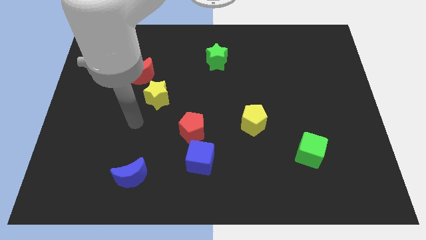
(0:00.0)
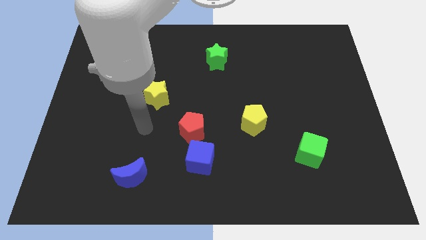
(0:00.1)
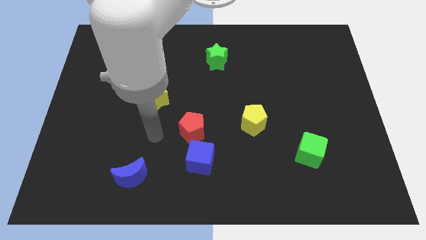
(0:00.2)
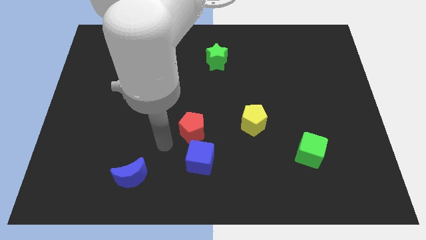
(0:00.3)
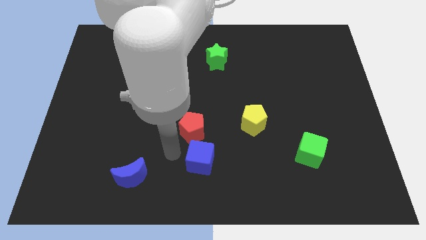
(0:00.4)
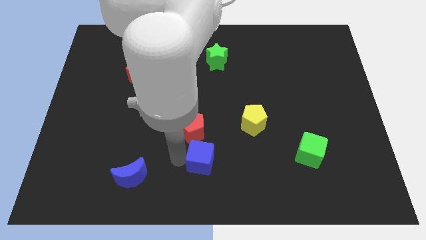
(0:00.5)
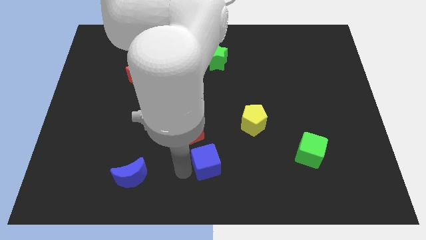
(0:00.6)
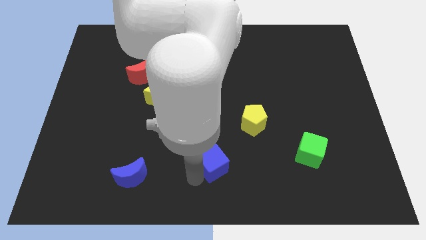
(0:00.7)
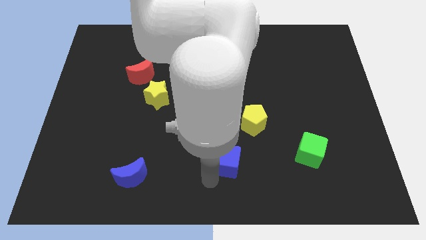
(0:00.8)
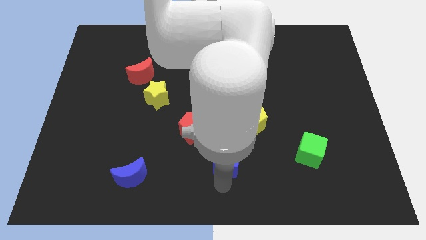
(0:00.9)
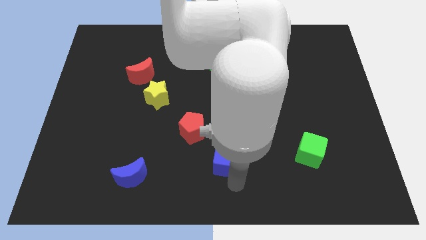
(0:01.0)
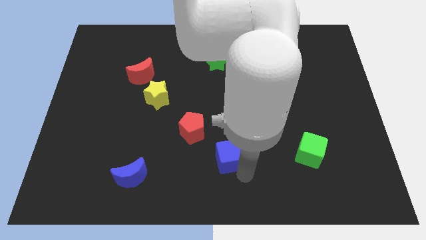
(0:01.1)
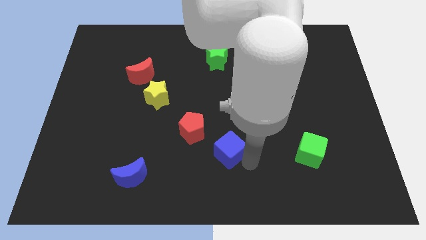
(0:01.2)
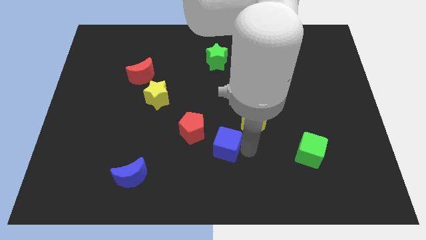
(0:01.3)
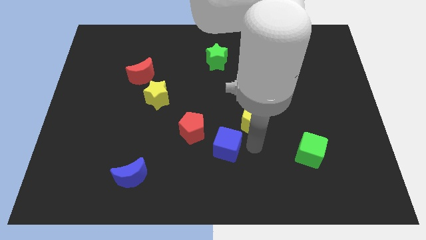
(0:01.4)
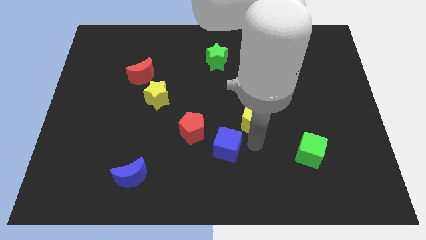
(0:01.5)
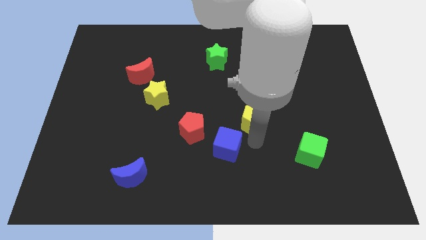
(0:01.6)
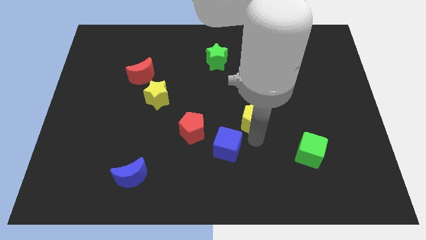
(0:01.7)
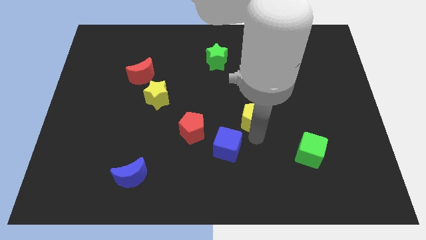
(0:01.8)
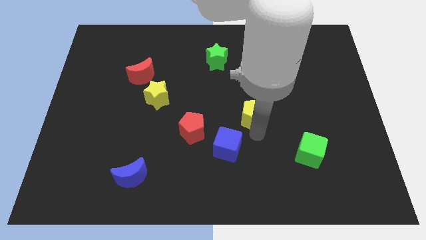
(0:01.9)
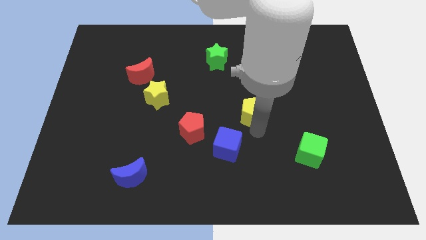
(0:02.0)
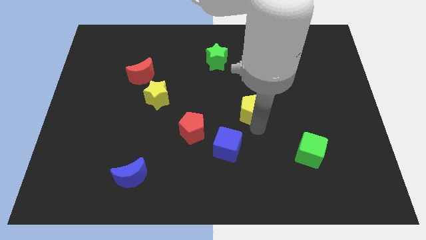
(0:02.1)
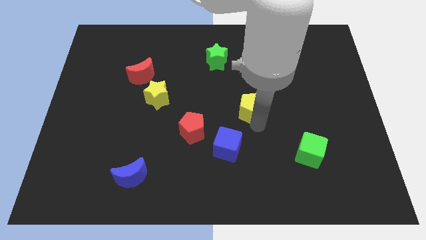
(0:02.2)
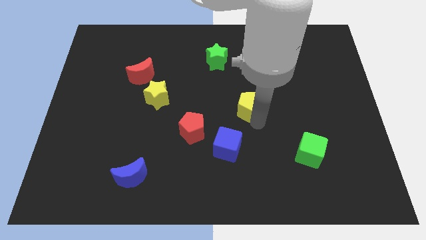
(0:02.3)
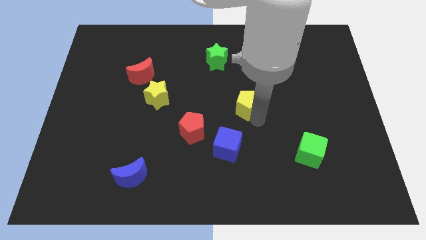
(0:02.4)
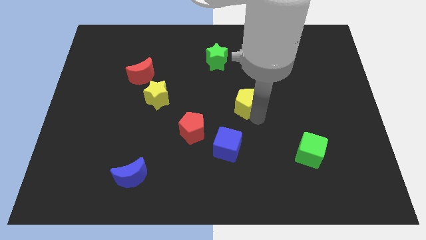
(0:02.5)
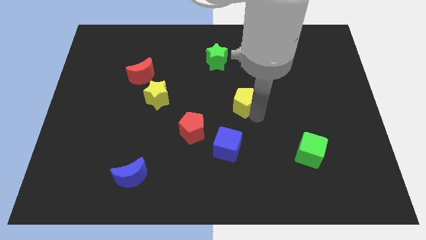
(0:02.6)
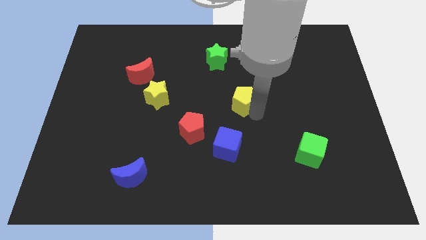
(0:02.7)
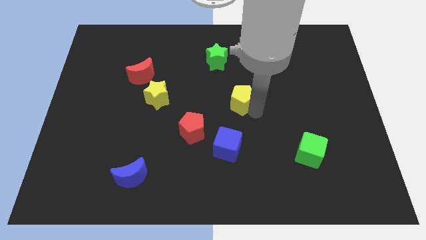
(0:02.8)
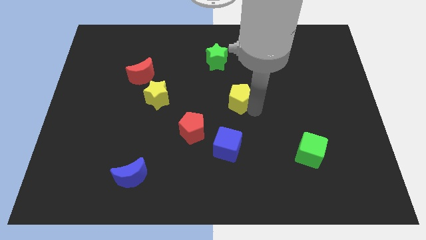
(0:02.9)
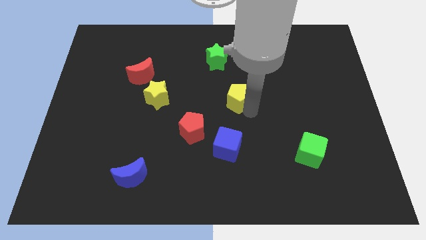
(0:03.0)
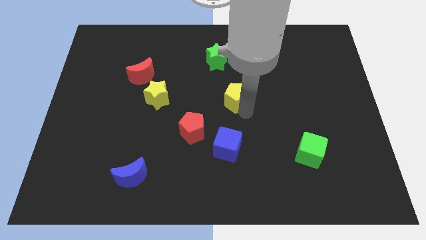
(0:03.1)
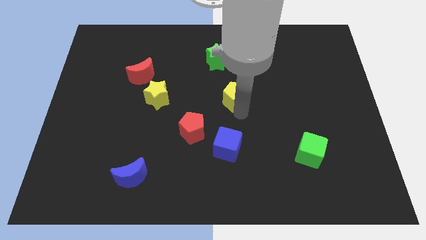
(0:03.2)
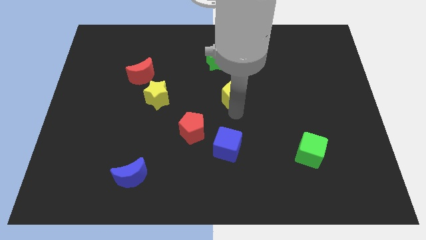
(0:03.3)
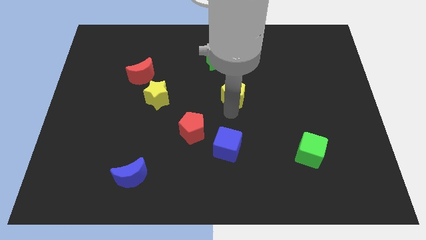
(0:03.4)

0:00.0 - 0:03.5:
push the yellow pentagon a little up

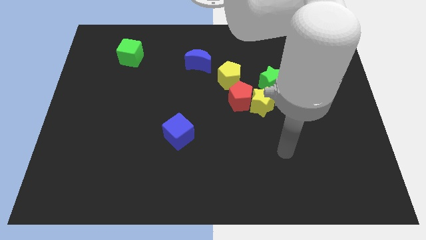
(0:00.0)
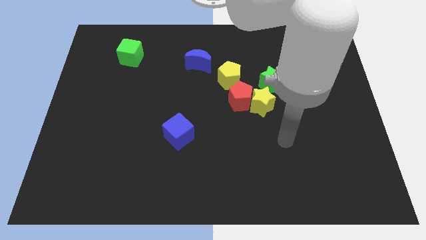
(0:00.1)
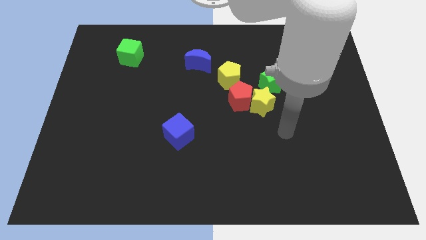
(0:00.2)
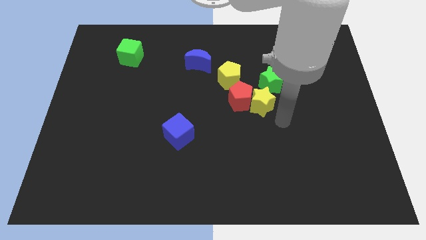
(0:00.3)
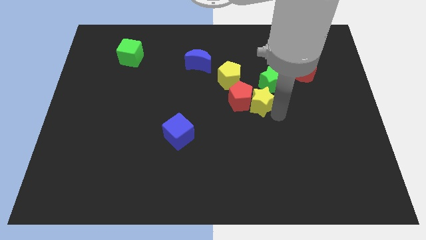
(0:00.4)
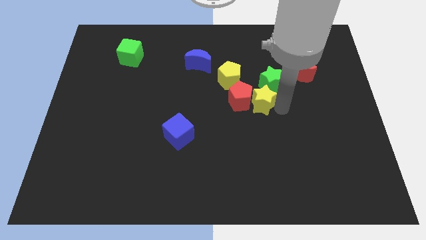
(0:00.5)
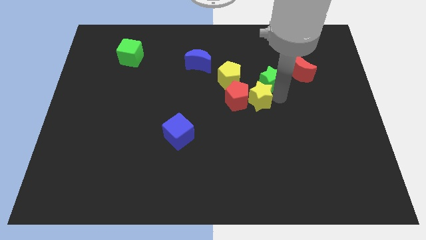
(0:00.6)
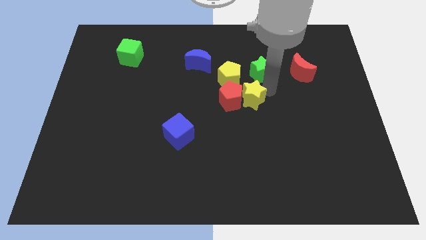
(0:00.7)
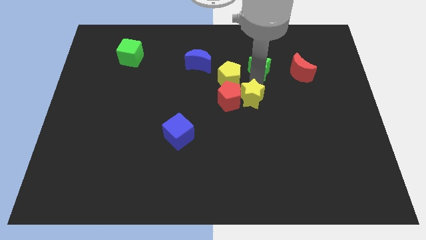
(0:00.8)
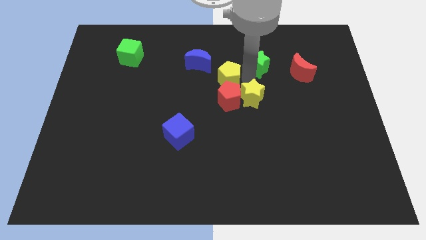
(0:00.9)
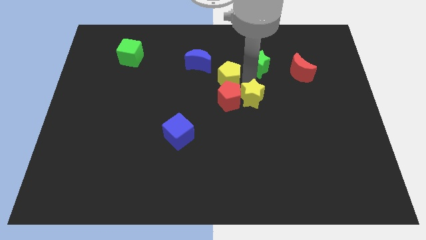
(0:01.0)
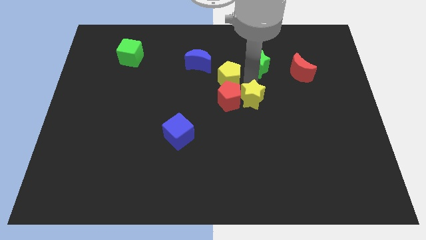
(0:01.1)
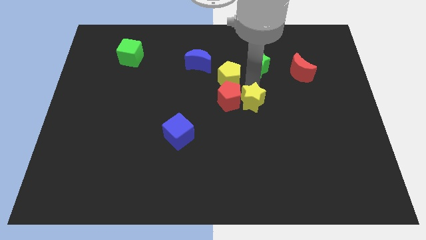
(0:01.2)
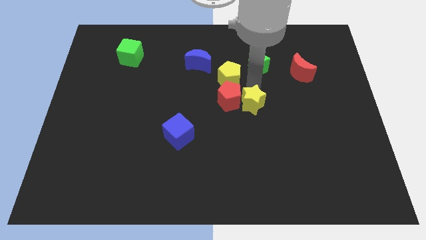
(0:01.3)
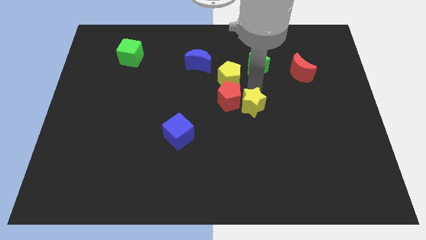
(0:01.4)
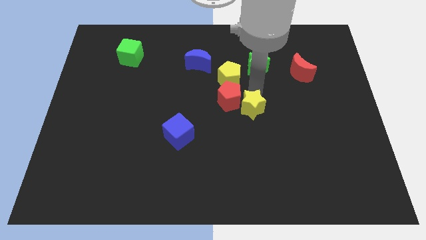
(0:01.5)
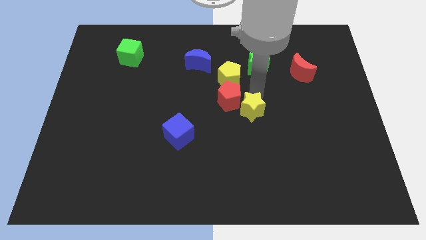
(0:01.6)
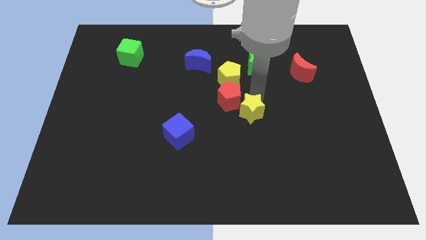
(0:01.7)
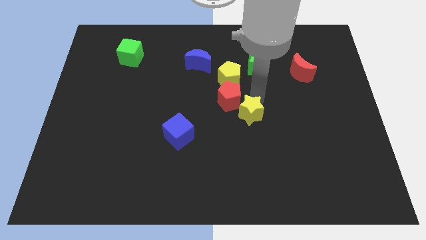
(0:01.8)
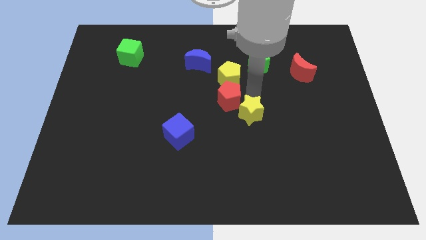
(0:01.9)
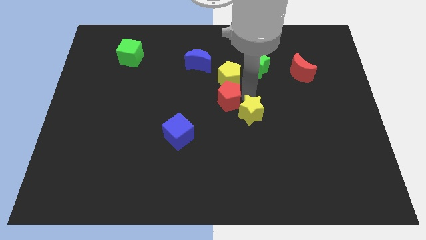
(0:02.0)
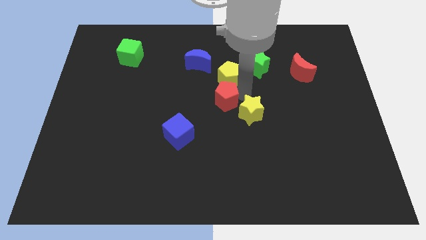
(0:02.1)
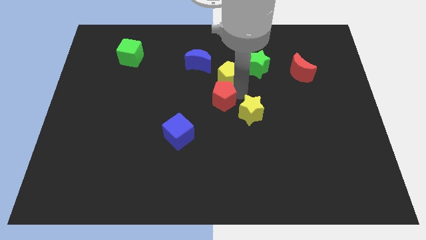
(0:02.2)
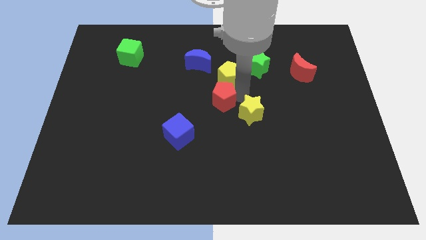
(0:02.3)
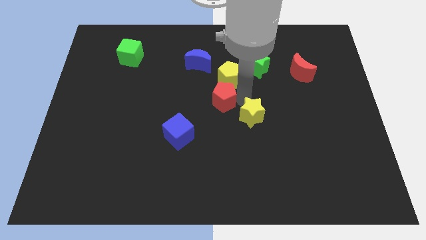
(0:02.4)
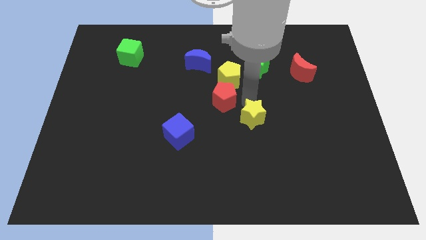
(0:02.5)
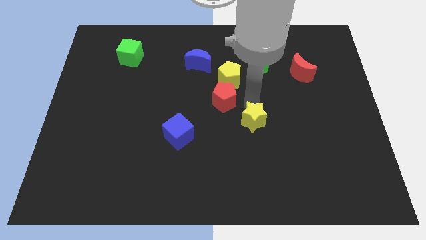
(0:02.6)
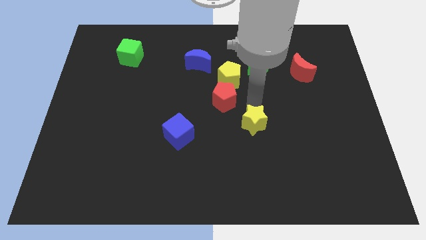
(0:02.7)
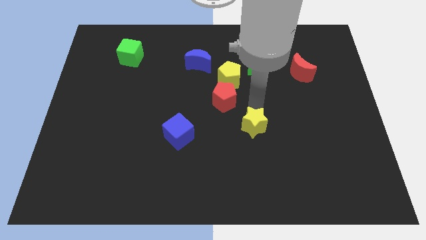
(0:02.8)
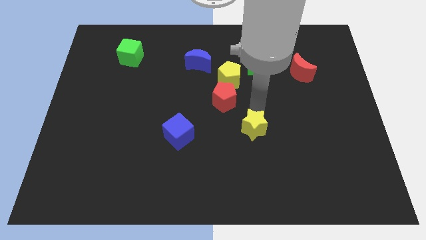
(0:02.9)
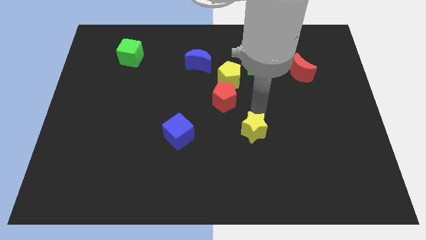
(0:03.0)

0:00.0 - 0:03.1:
slightly slide the yellow star down

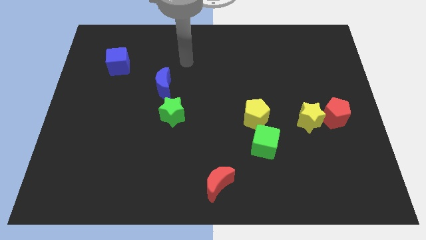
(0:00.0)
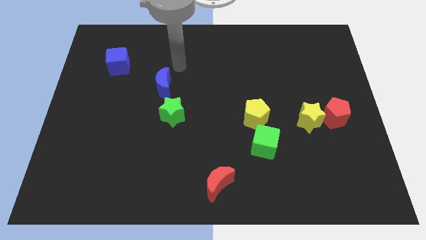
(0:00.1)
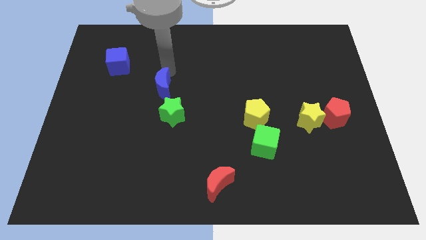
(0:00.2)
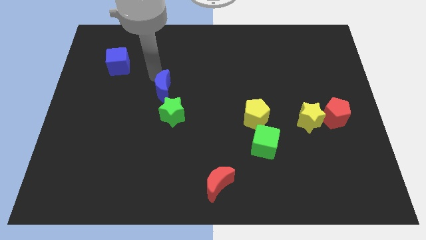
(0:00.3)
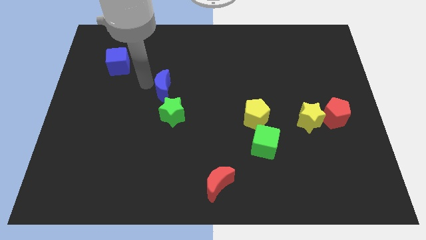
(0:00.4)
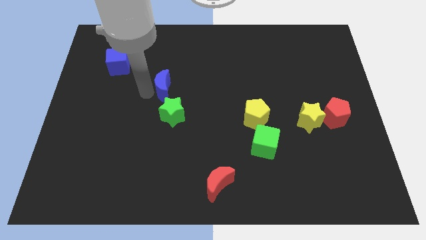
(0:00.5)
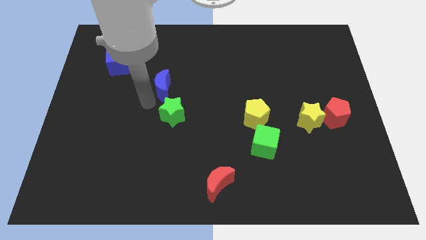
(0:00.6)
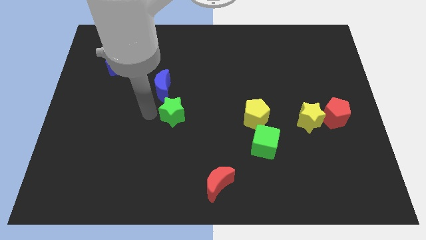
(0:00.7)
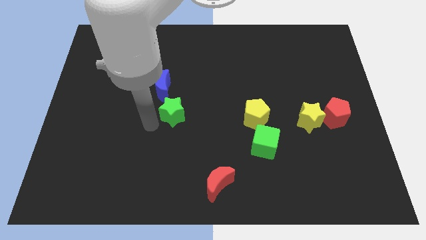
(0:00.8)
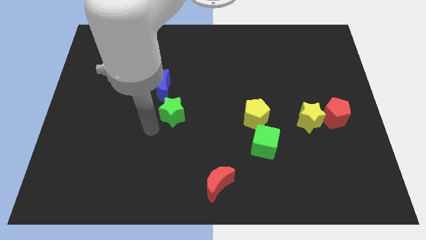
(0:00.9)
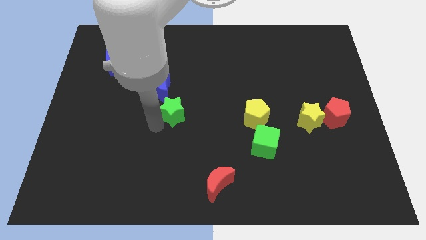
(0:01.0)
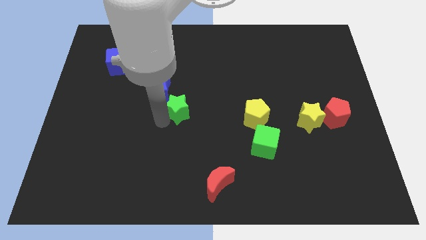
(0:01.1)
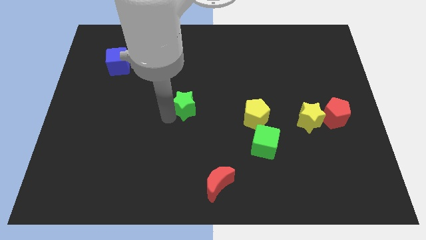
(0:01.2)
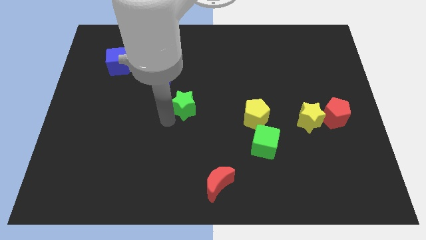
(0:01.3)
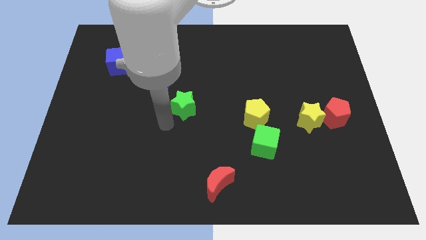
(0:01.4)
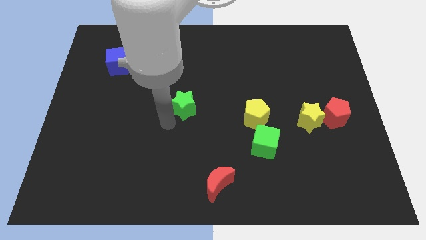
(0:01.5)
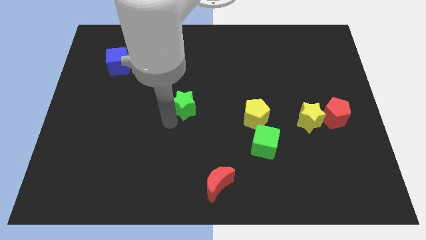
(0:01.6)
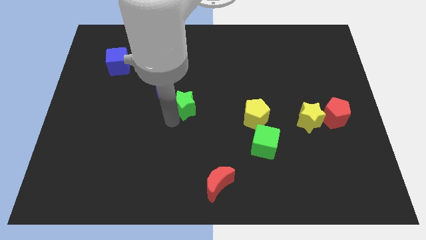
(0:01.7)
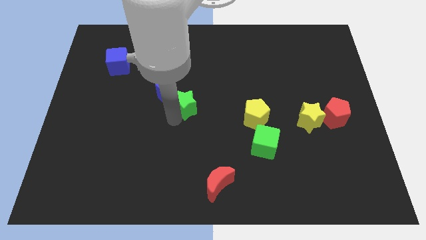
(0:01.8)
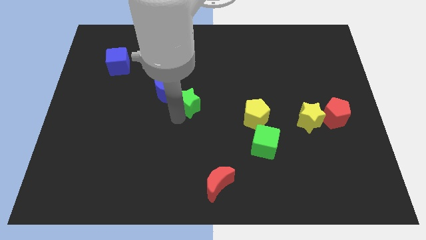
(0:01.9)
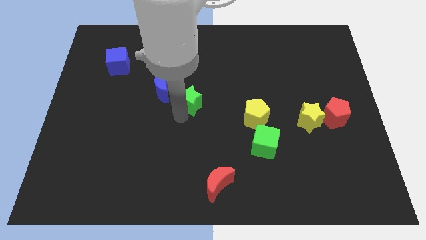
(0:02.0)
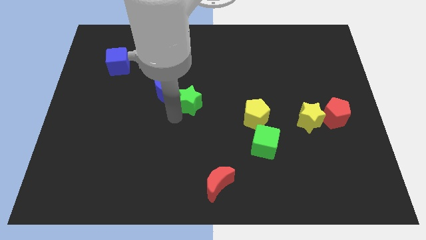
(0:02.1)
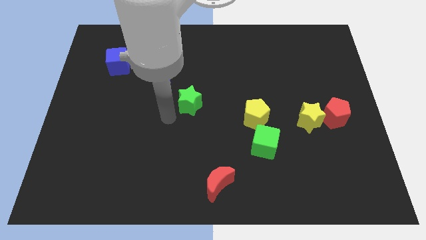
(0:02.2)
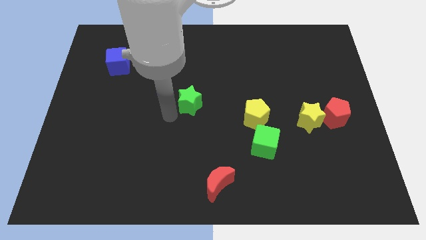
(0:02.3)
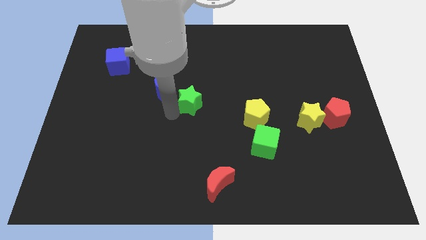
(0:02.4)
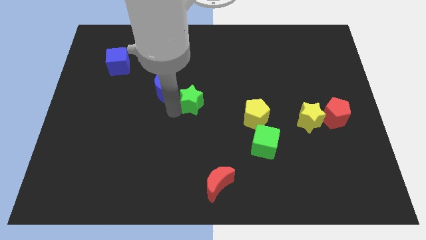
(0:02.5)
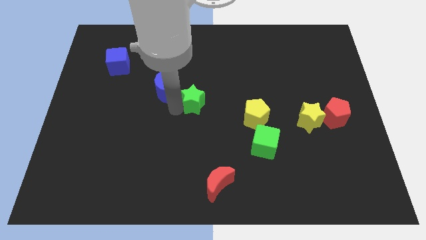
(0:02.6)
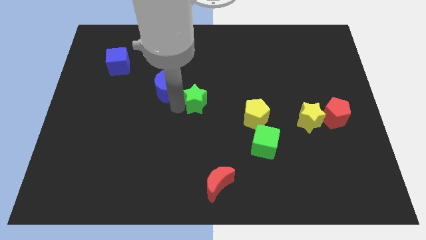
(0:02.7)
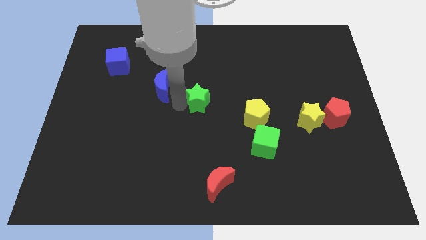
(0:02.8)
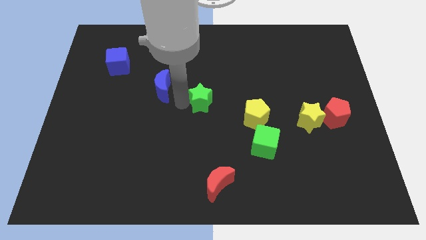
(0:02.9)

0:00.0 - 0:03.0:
move the green star up and then to the right somewhat
